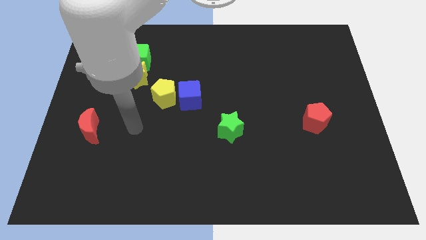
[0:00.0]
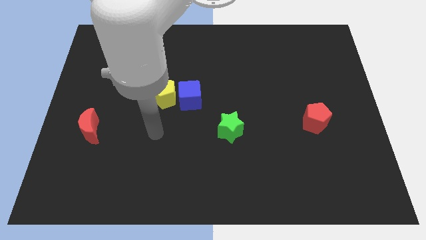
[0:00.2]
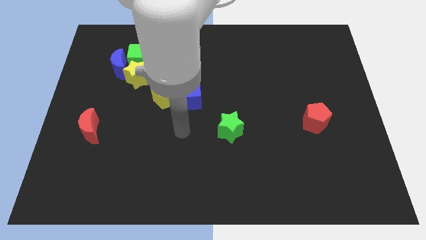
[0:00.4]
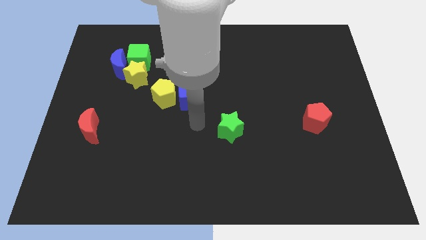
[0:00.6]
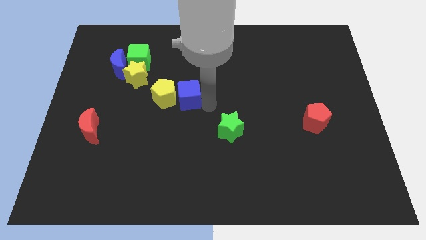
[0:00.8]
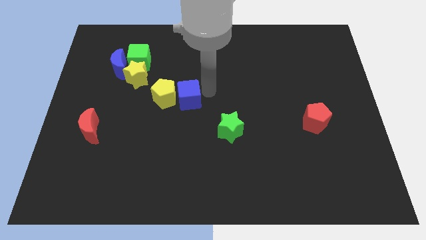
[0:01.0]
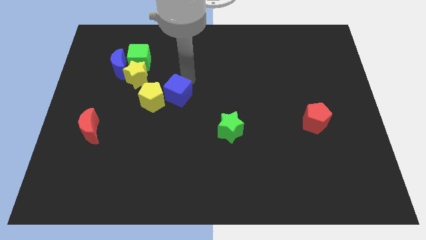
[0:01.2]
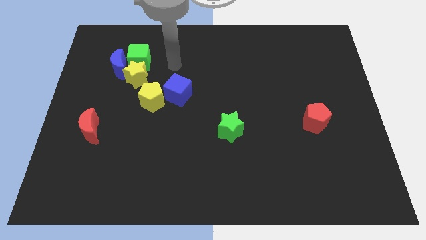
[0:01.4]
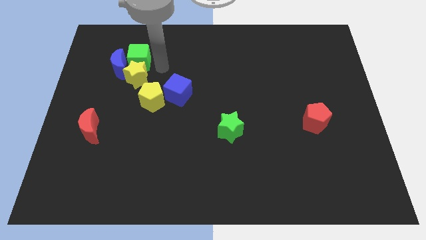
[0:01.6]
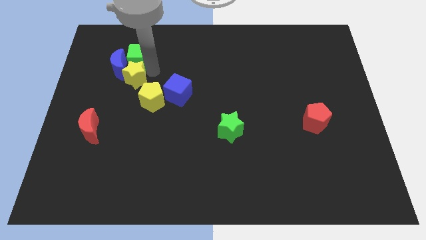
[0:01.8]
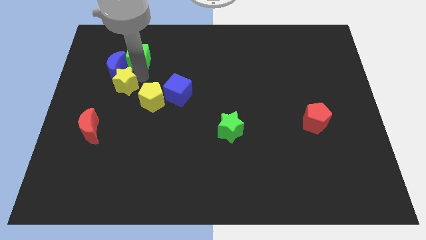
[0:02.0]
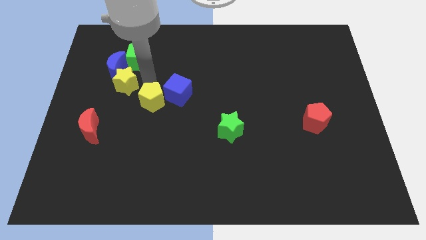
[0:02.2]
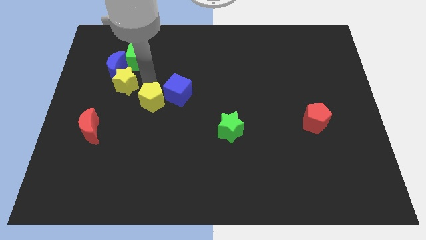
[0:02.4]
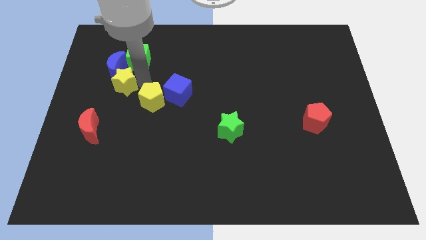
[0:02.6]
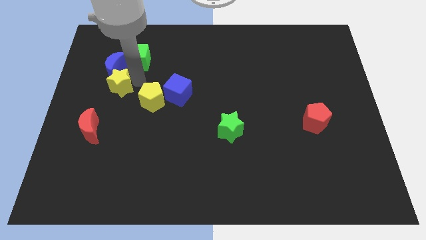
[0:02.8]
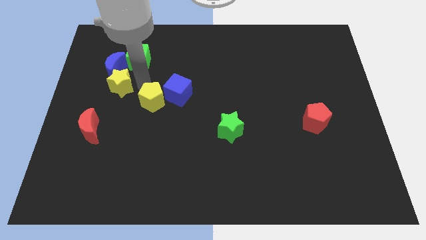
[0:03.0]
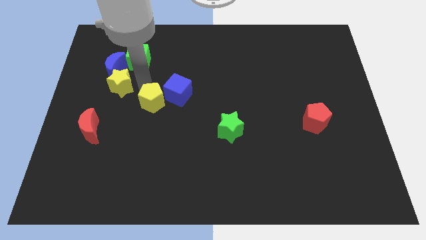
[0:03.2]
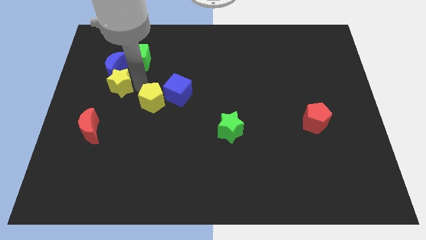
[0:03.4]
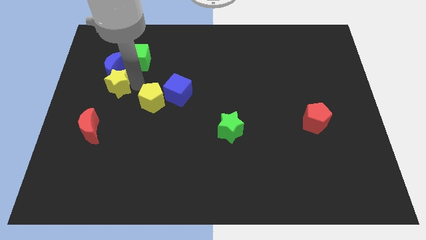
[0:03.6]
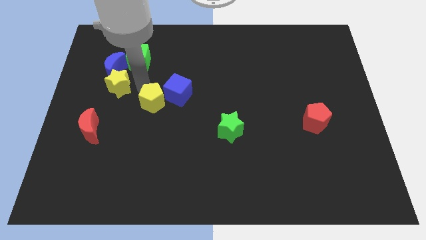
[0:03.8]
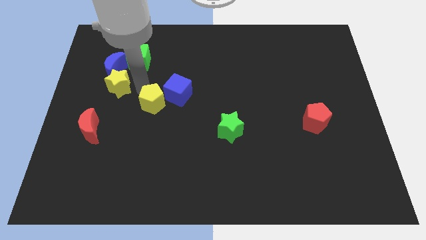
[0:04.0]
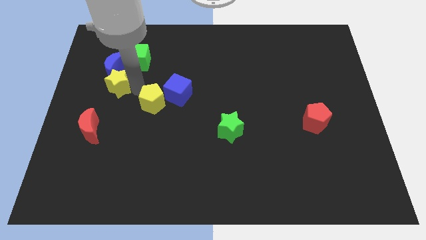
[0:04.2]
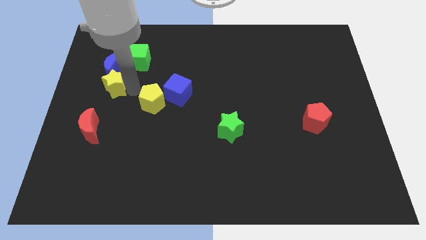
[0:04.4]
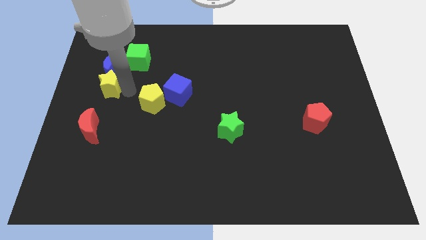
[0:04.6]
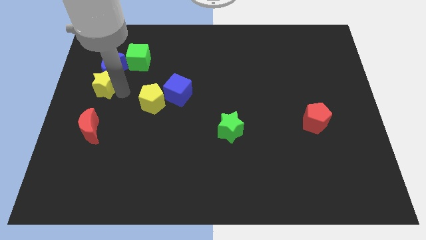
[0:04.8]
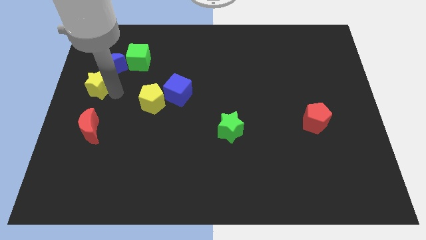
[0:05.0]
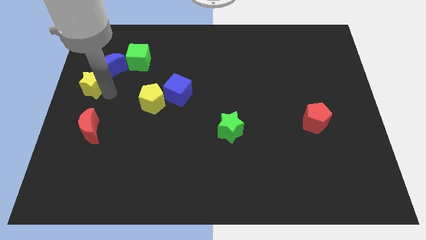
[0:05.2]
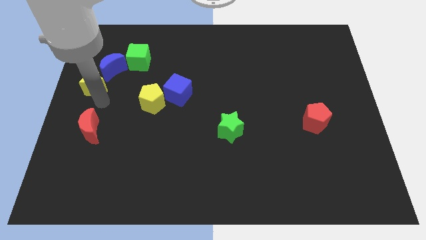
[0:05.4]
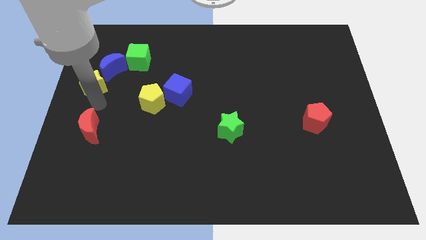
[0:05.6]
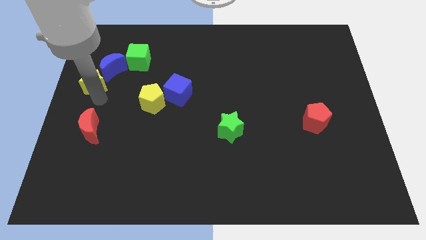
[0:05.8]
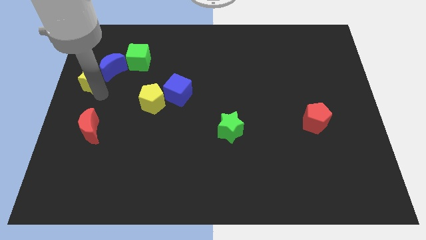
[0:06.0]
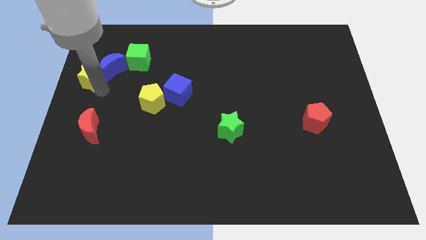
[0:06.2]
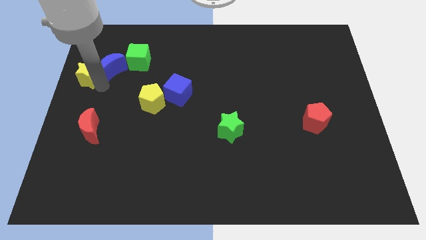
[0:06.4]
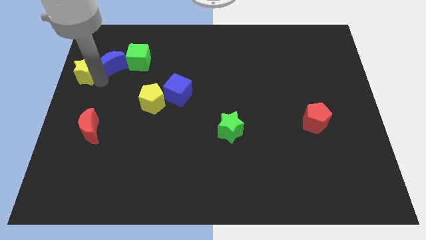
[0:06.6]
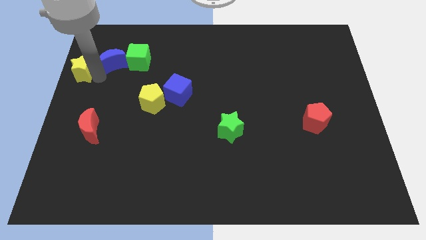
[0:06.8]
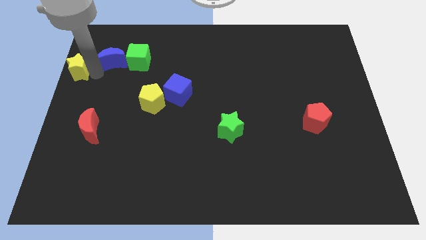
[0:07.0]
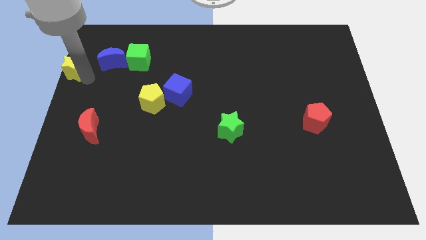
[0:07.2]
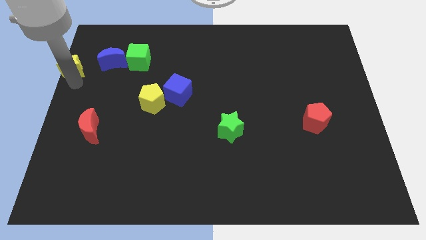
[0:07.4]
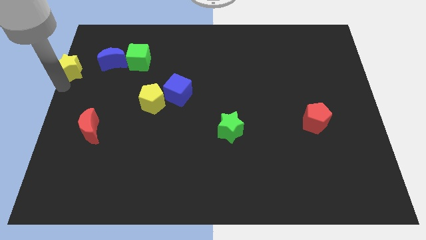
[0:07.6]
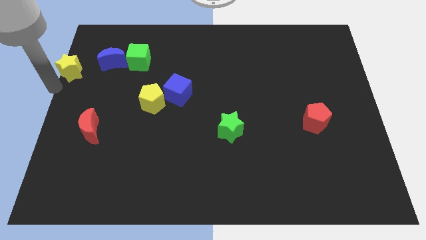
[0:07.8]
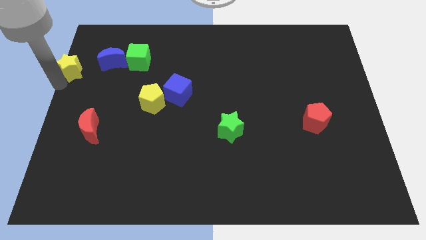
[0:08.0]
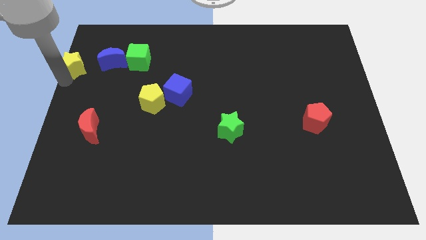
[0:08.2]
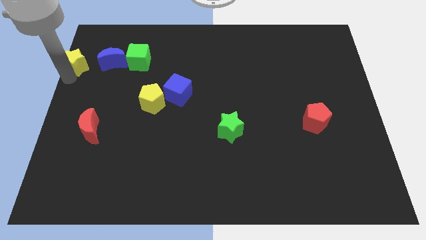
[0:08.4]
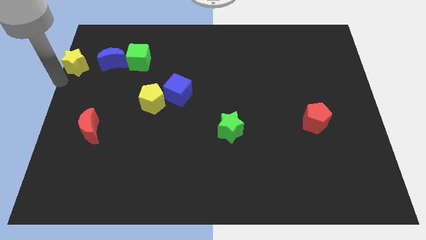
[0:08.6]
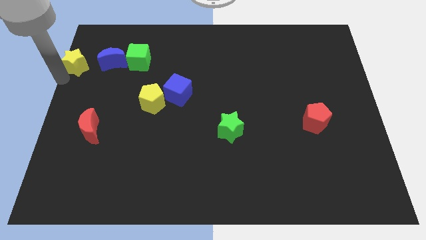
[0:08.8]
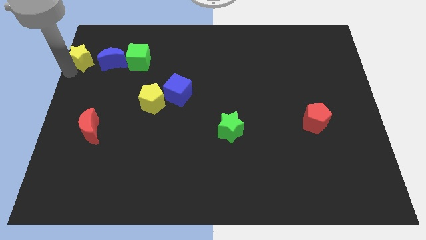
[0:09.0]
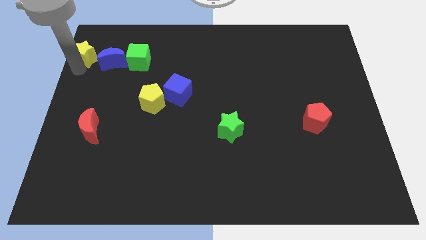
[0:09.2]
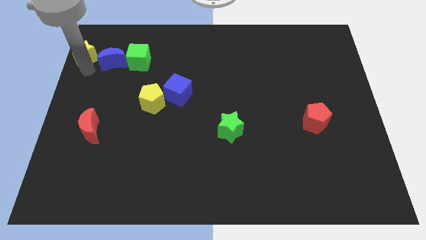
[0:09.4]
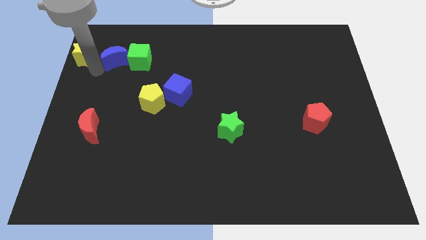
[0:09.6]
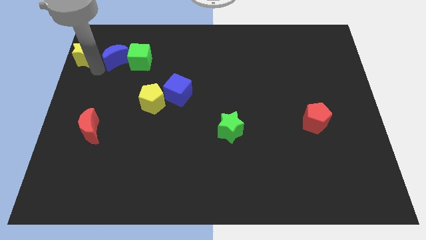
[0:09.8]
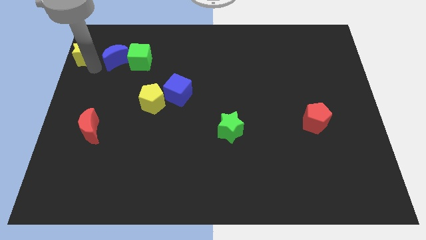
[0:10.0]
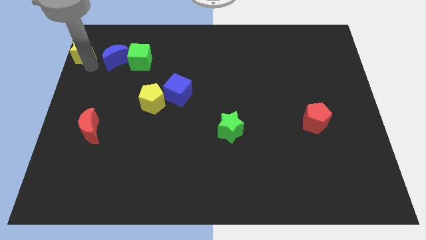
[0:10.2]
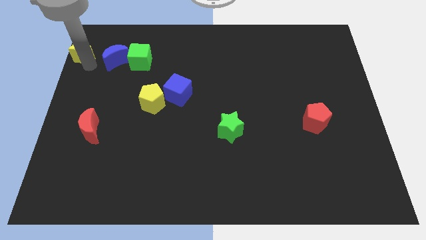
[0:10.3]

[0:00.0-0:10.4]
push the yellow star to the top left

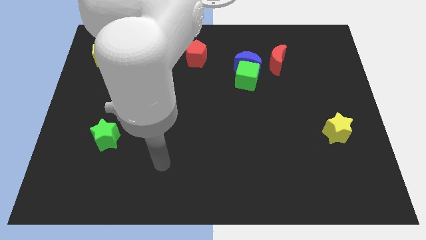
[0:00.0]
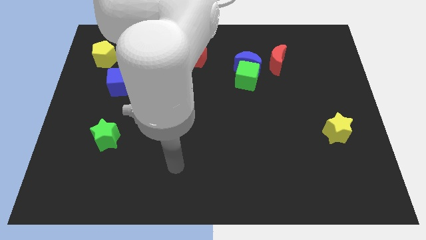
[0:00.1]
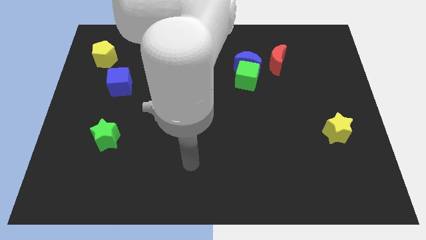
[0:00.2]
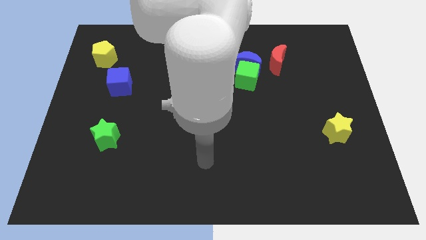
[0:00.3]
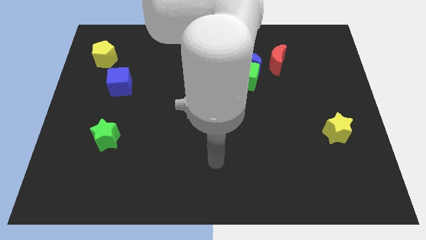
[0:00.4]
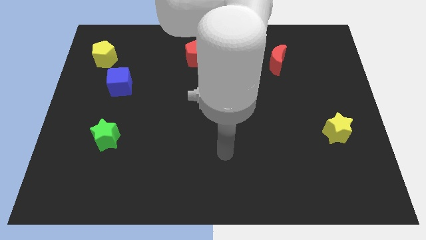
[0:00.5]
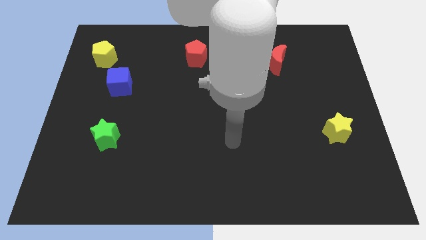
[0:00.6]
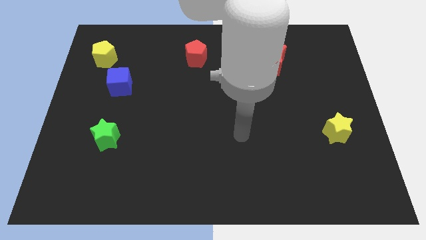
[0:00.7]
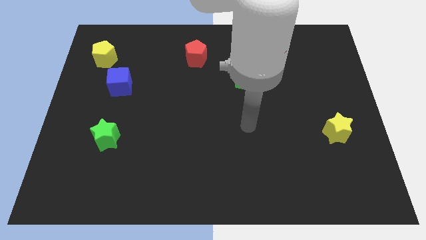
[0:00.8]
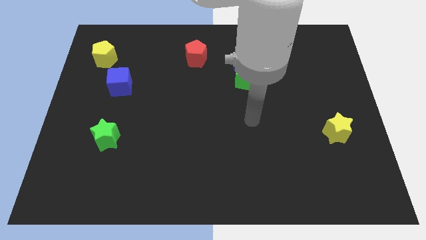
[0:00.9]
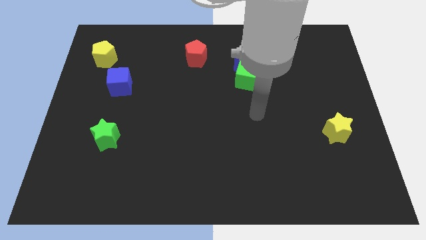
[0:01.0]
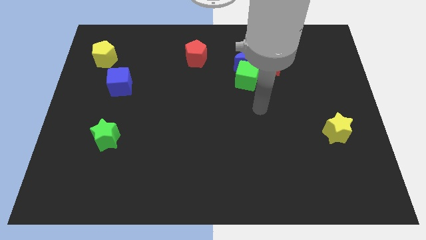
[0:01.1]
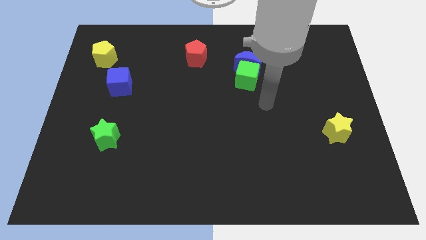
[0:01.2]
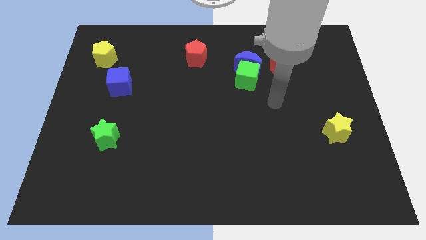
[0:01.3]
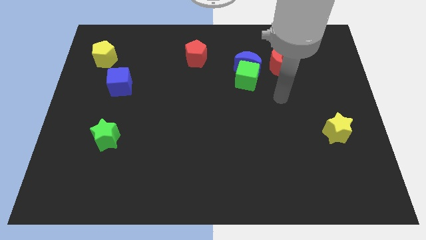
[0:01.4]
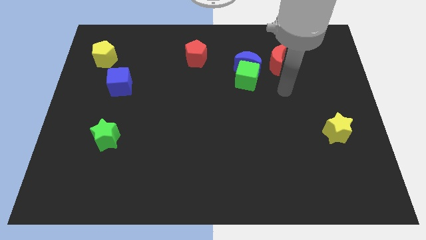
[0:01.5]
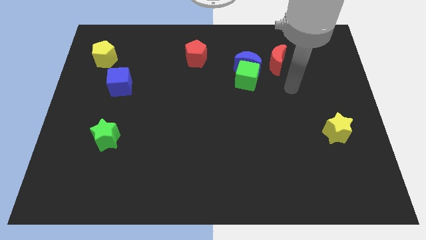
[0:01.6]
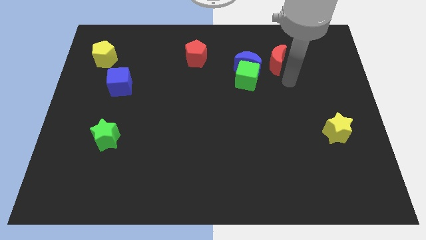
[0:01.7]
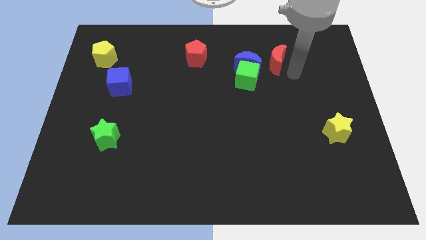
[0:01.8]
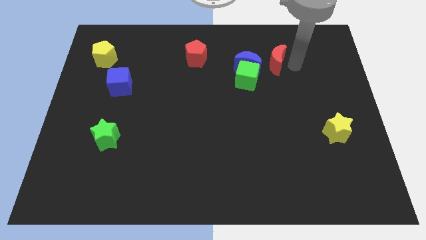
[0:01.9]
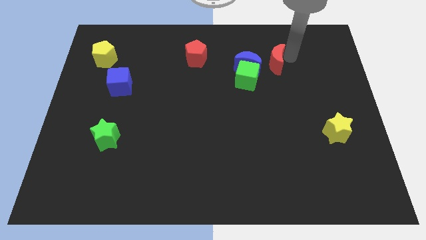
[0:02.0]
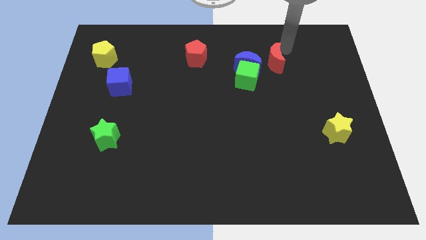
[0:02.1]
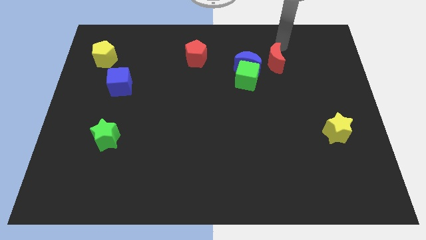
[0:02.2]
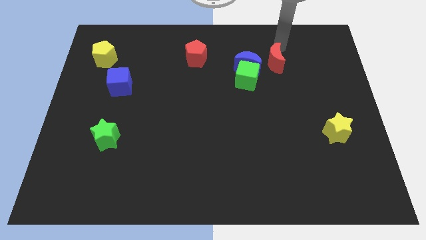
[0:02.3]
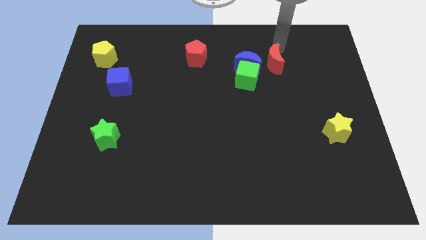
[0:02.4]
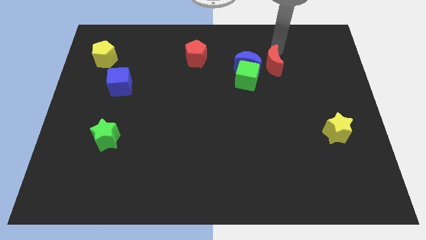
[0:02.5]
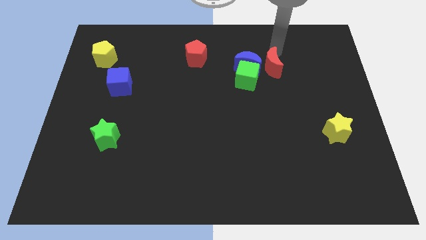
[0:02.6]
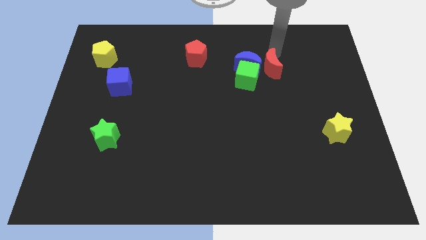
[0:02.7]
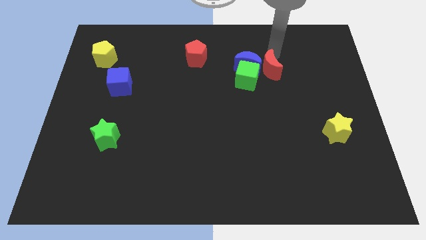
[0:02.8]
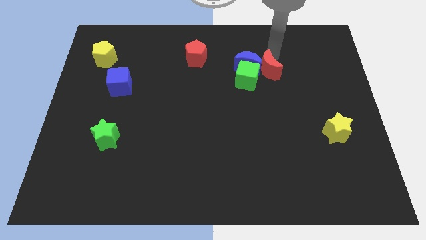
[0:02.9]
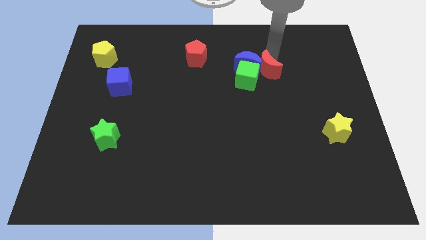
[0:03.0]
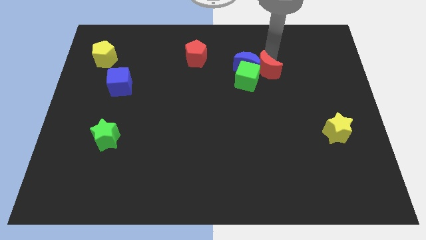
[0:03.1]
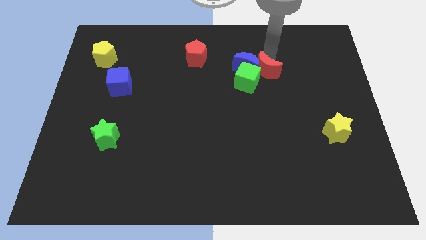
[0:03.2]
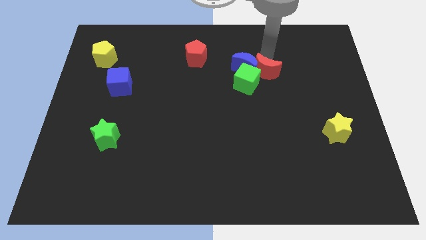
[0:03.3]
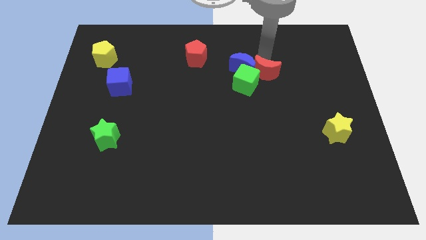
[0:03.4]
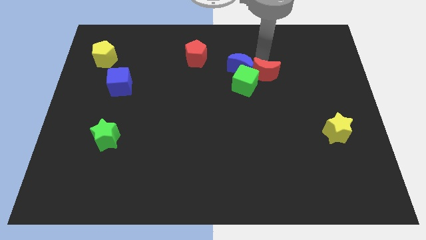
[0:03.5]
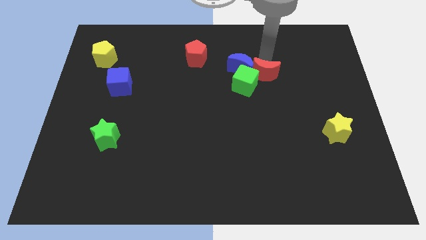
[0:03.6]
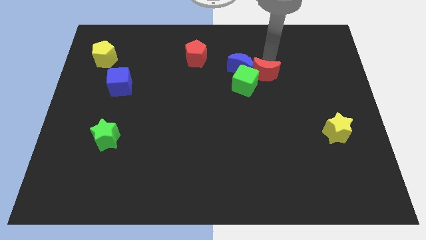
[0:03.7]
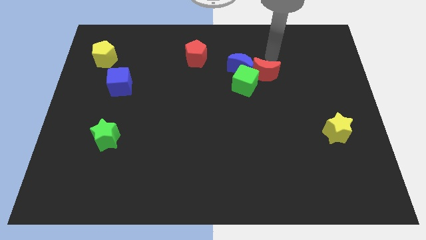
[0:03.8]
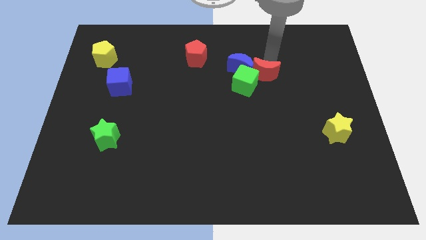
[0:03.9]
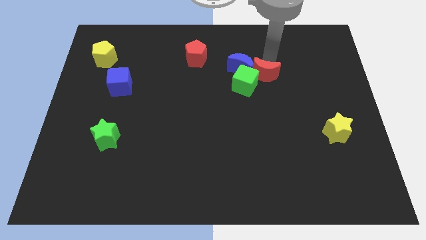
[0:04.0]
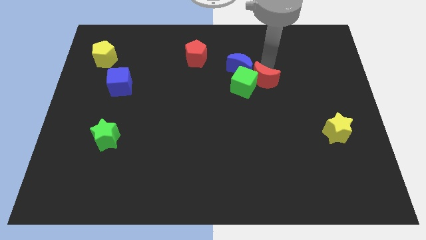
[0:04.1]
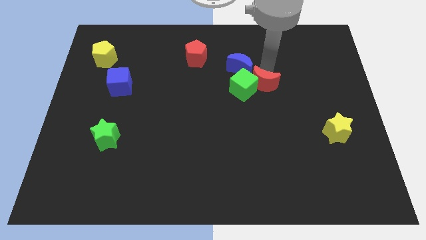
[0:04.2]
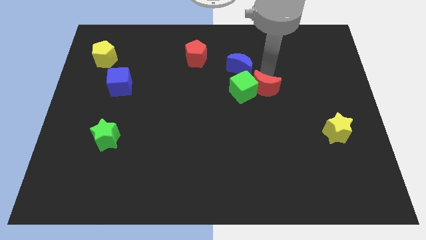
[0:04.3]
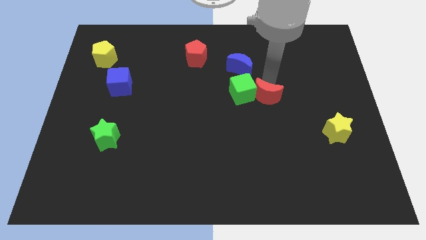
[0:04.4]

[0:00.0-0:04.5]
push the red moon to the middle of the board
